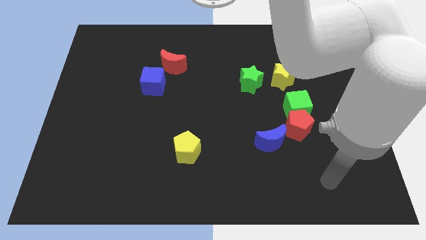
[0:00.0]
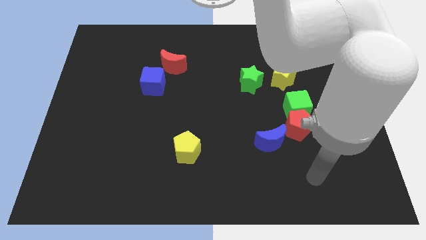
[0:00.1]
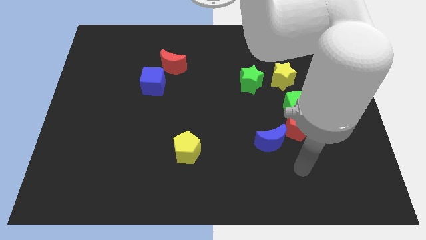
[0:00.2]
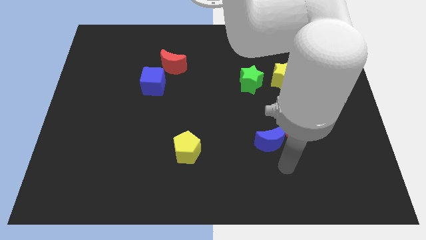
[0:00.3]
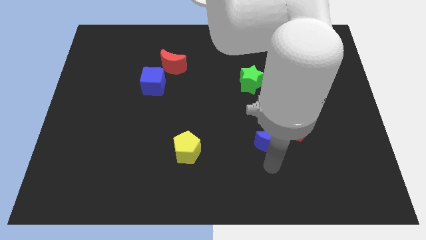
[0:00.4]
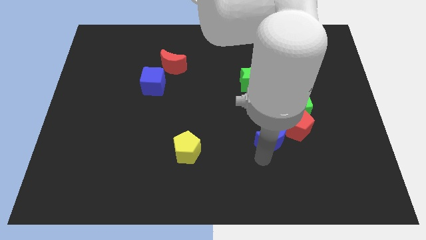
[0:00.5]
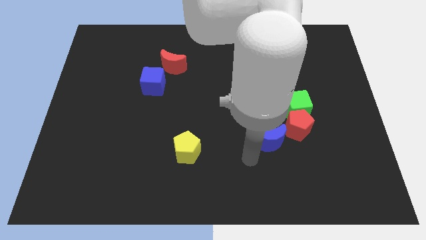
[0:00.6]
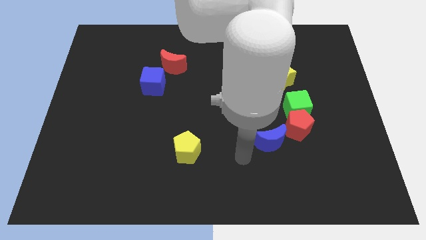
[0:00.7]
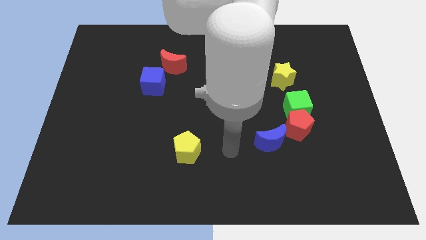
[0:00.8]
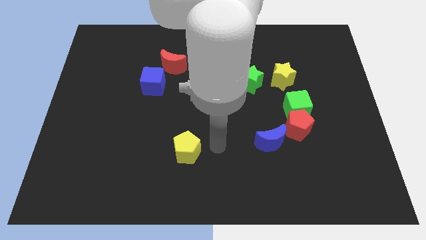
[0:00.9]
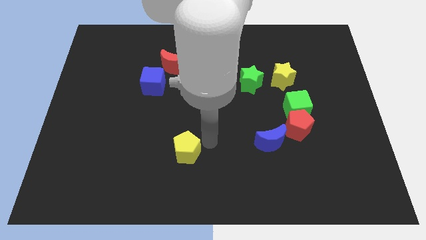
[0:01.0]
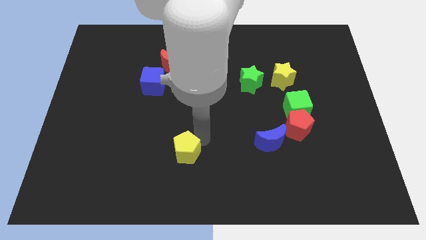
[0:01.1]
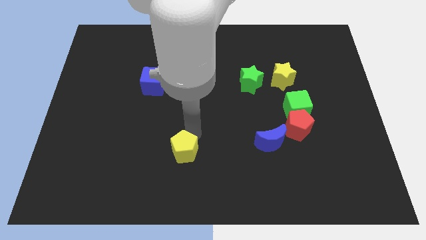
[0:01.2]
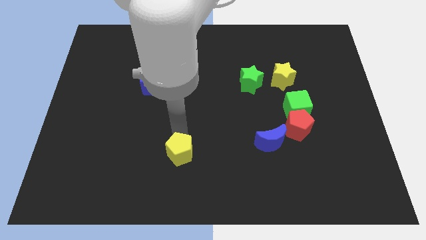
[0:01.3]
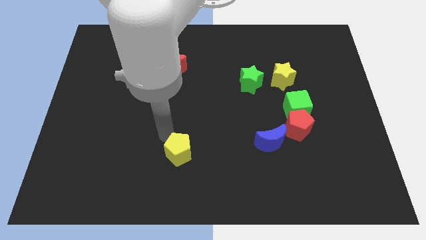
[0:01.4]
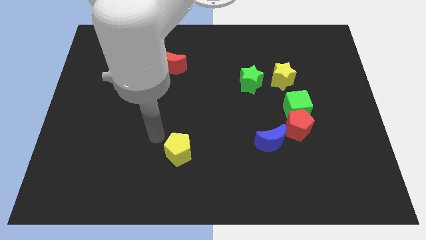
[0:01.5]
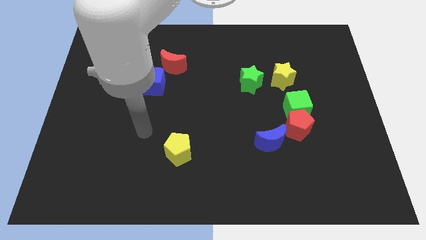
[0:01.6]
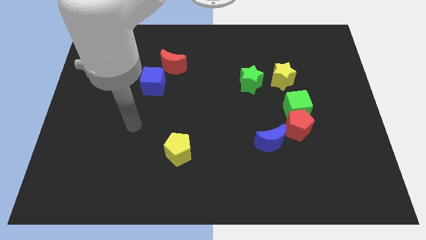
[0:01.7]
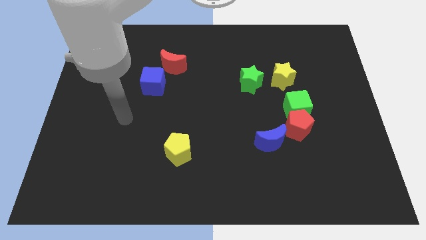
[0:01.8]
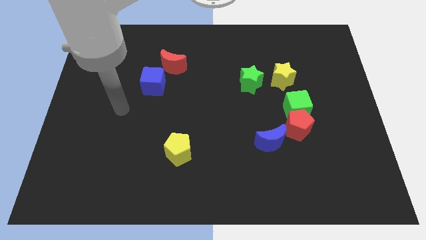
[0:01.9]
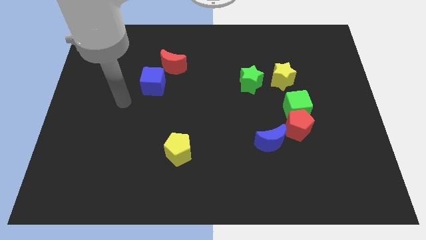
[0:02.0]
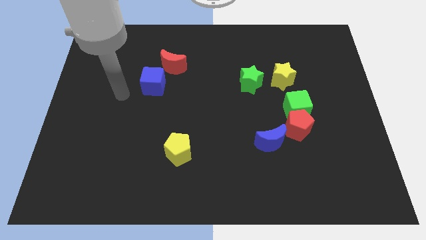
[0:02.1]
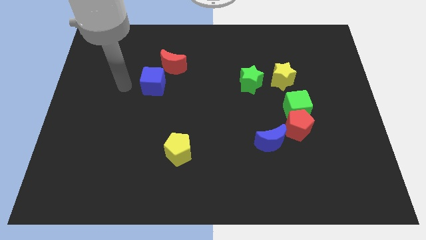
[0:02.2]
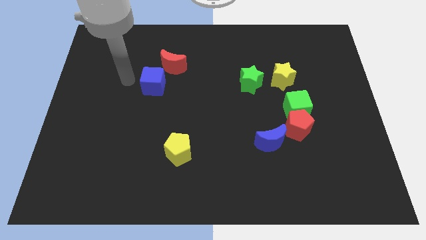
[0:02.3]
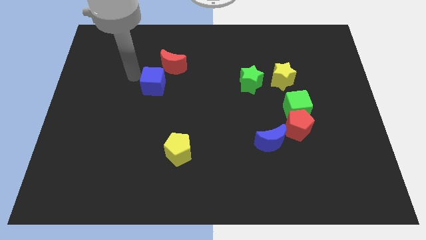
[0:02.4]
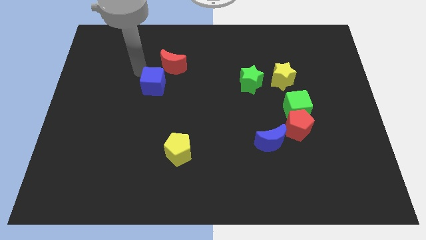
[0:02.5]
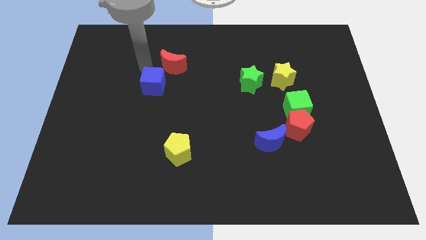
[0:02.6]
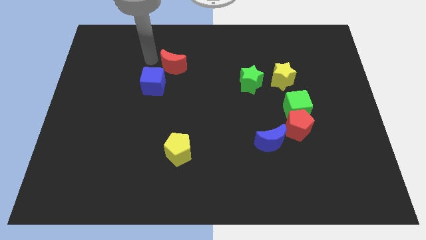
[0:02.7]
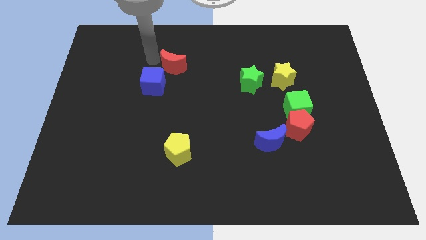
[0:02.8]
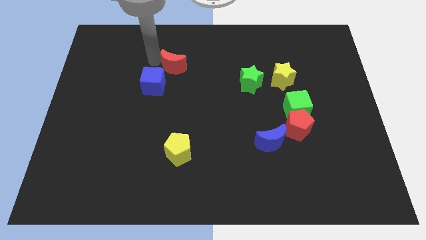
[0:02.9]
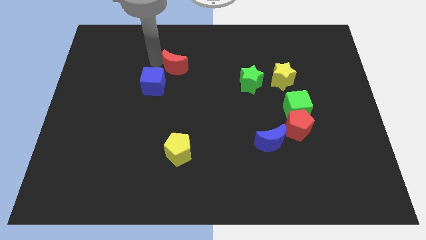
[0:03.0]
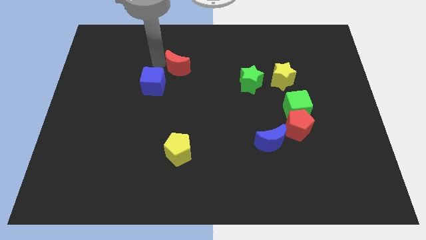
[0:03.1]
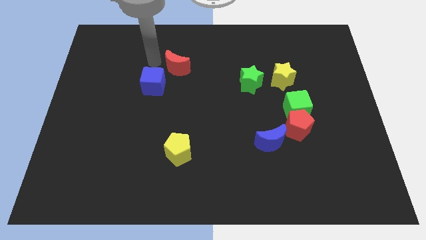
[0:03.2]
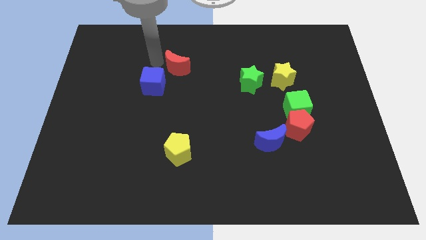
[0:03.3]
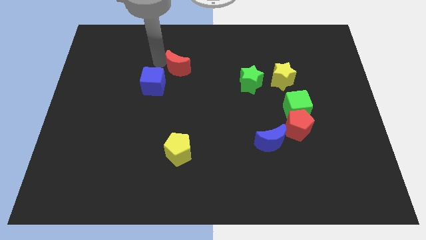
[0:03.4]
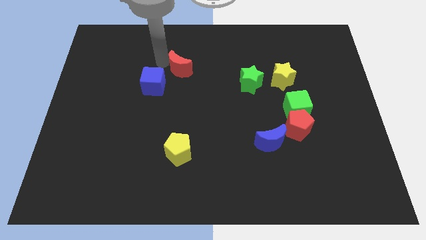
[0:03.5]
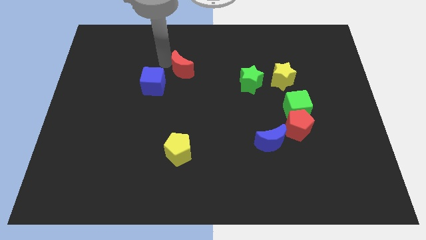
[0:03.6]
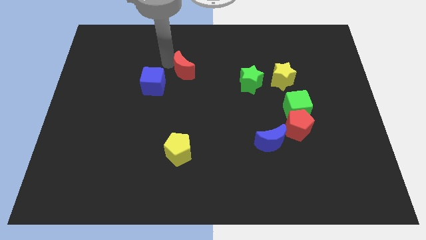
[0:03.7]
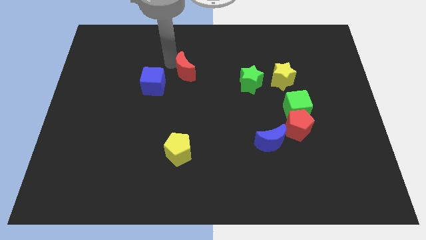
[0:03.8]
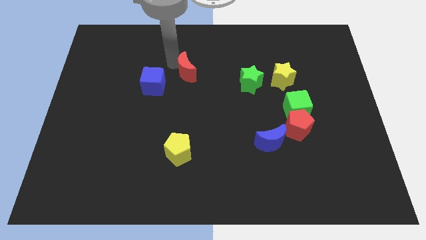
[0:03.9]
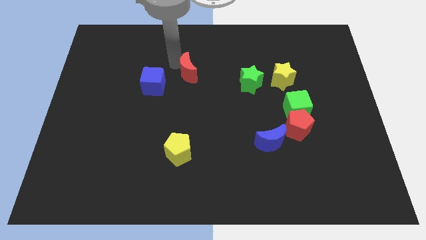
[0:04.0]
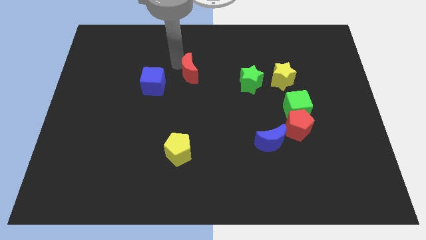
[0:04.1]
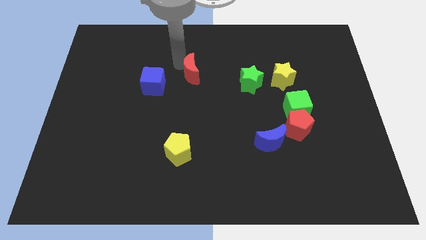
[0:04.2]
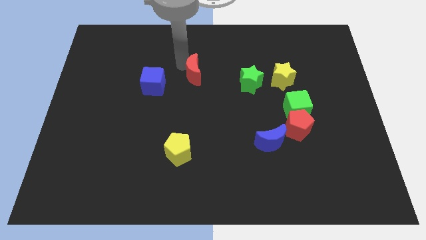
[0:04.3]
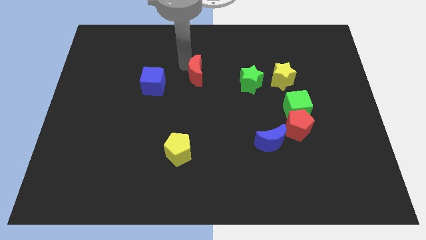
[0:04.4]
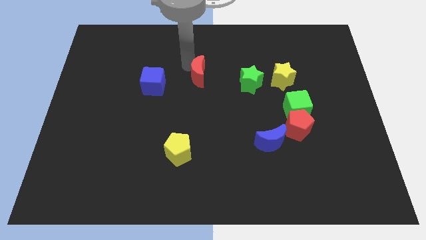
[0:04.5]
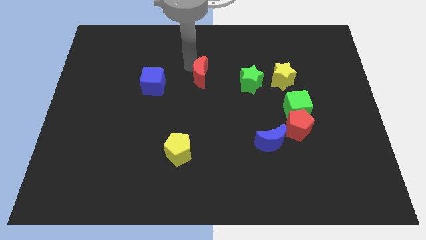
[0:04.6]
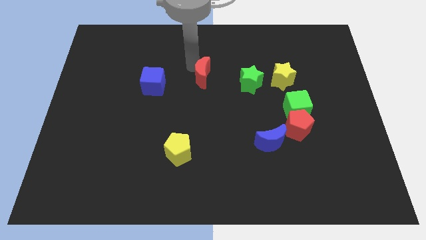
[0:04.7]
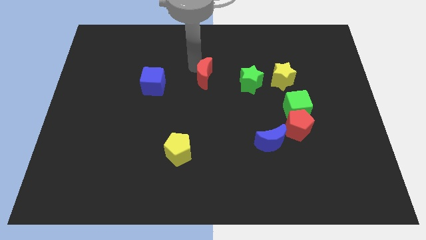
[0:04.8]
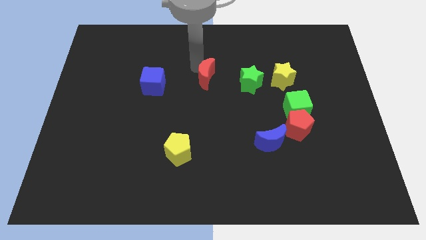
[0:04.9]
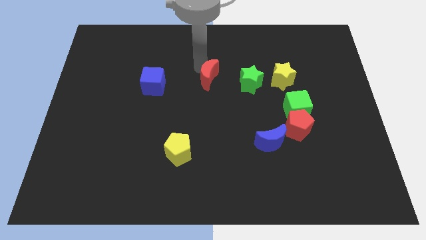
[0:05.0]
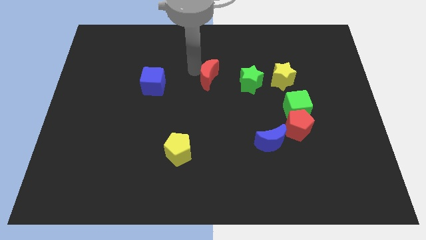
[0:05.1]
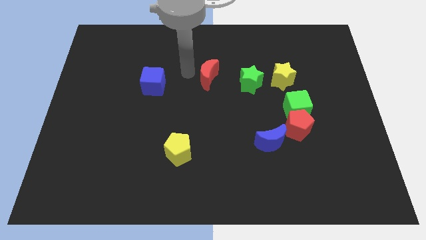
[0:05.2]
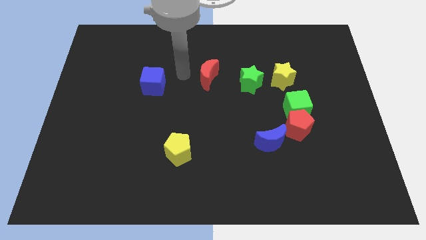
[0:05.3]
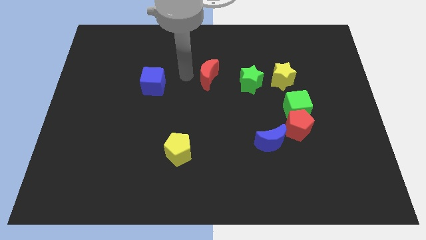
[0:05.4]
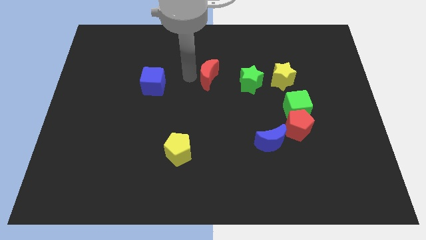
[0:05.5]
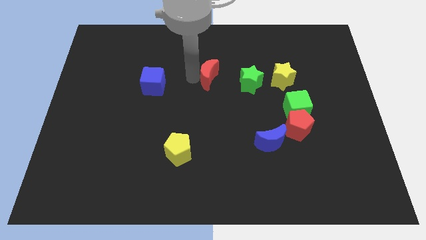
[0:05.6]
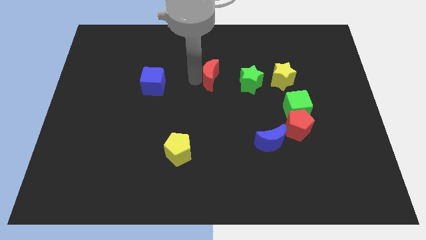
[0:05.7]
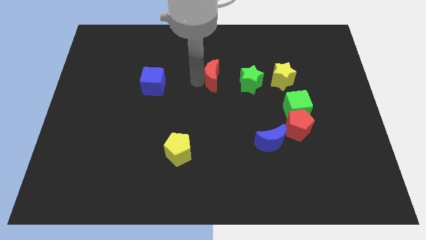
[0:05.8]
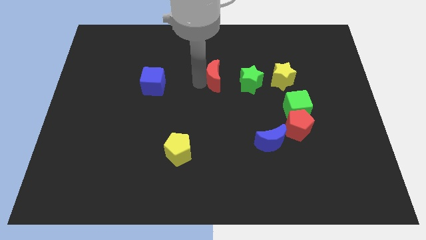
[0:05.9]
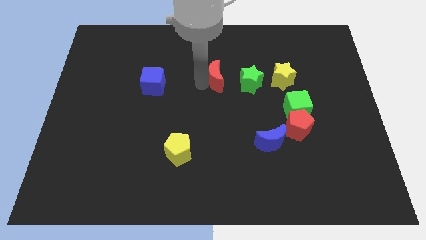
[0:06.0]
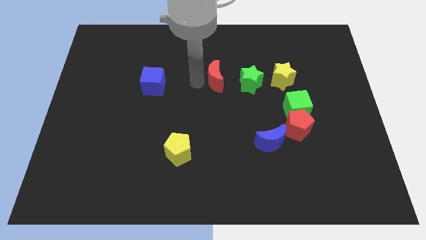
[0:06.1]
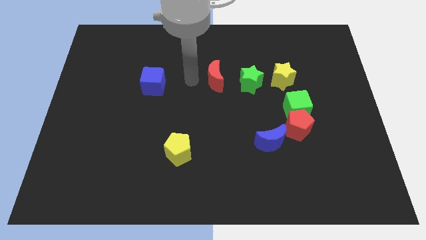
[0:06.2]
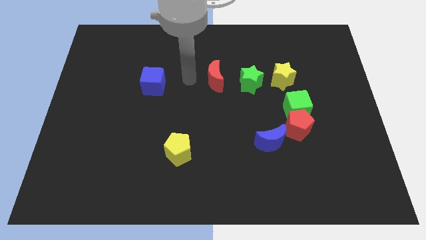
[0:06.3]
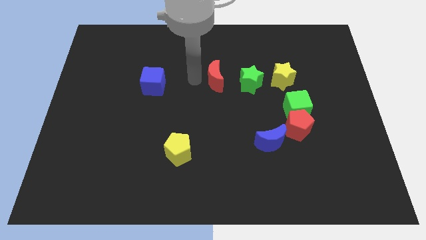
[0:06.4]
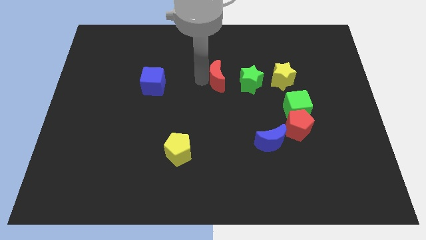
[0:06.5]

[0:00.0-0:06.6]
slide the red moon left of the yellow star

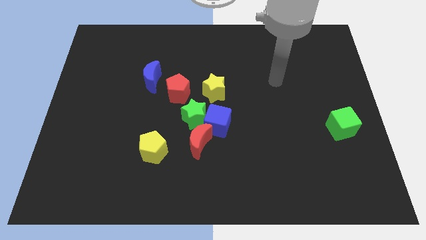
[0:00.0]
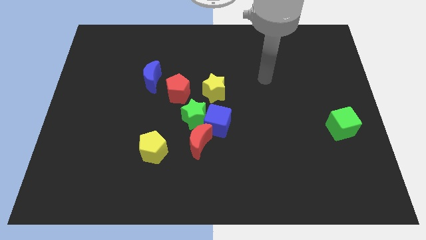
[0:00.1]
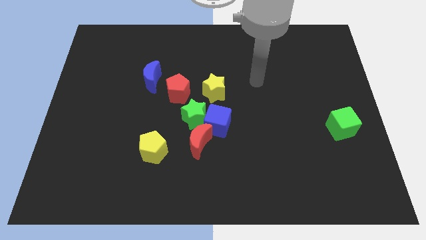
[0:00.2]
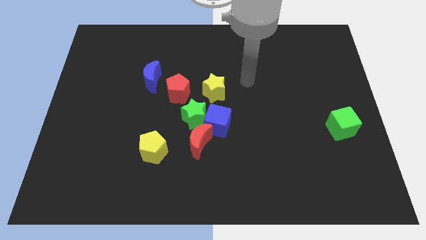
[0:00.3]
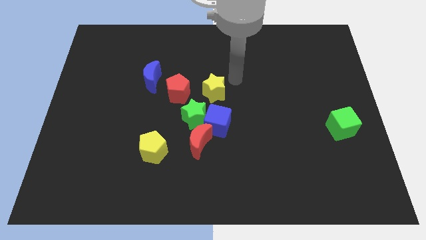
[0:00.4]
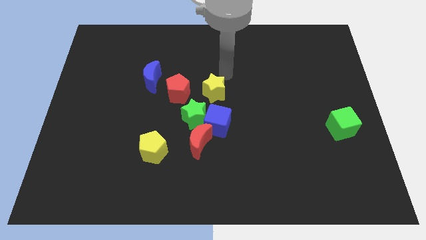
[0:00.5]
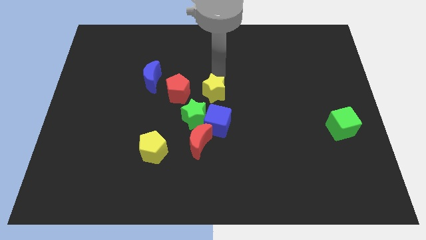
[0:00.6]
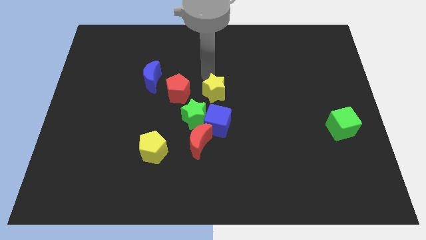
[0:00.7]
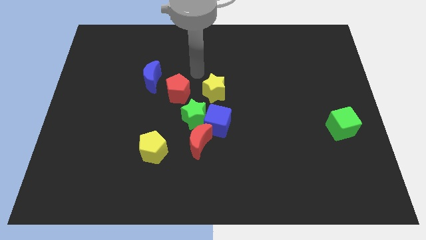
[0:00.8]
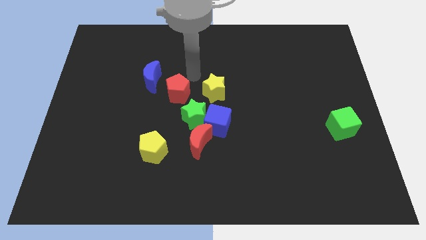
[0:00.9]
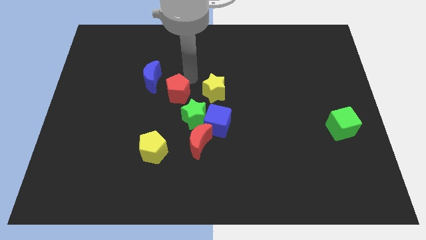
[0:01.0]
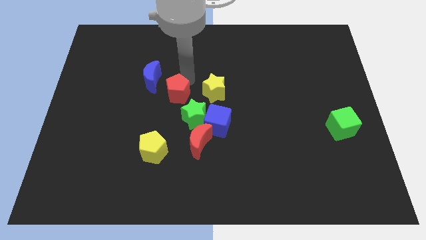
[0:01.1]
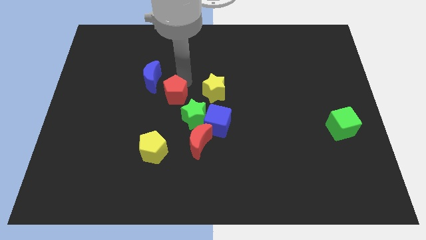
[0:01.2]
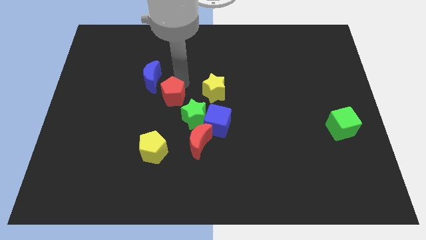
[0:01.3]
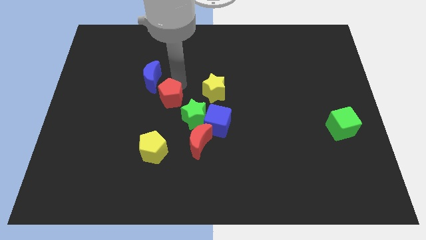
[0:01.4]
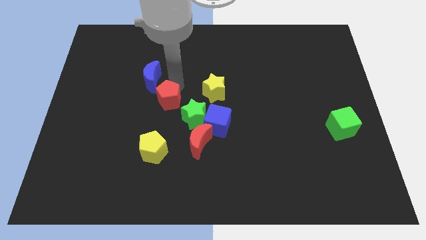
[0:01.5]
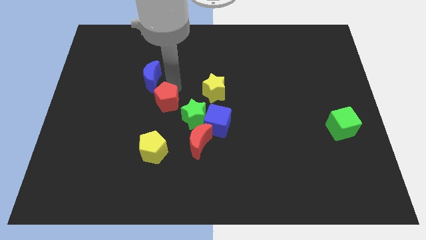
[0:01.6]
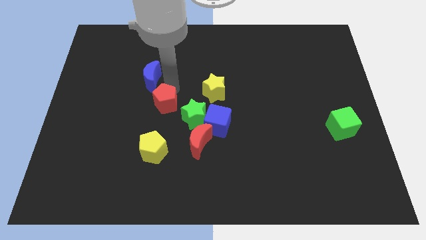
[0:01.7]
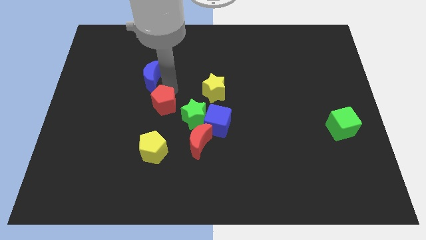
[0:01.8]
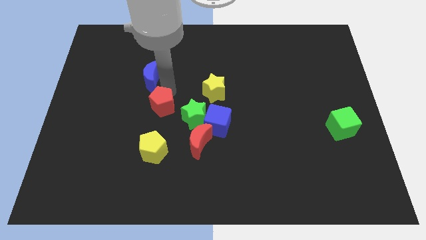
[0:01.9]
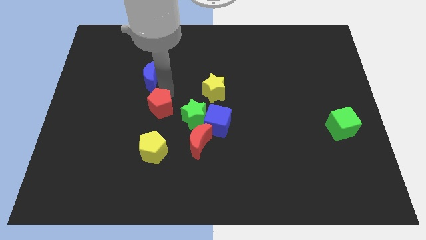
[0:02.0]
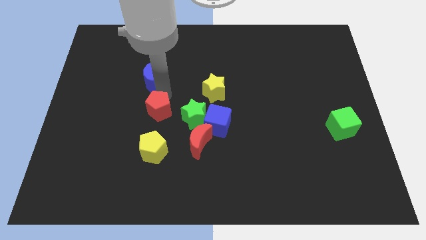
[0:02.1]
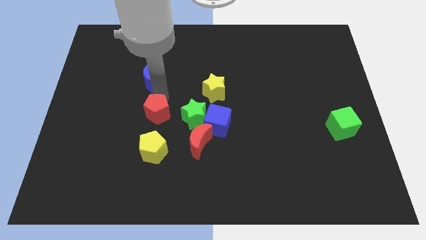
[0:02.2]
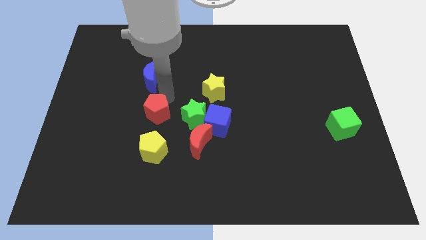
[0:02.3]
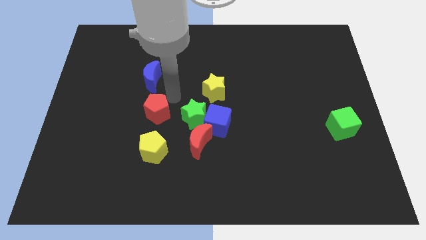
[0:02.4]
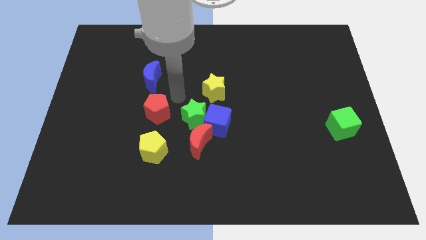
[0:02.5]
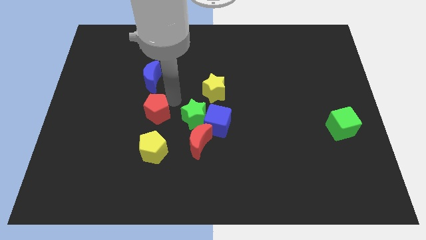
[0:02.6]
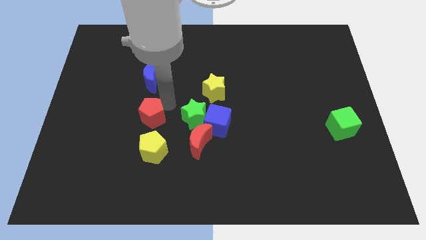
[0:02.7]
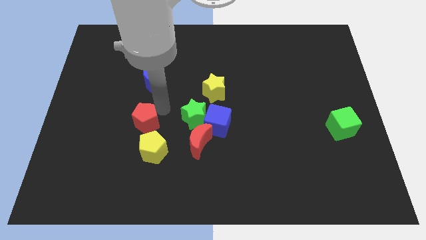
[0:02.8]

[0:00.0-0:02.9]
move the red pentagon to the top left side of the yellow pentagon
